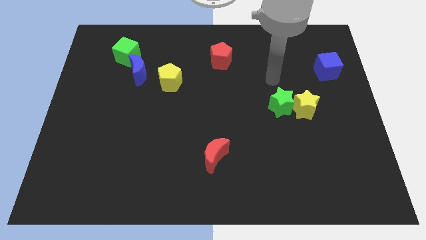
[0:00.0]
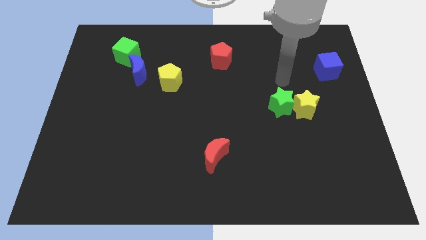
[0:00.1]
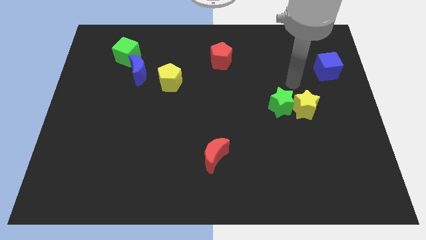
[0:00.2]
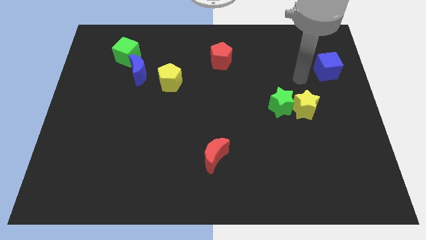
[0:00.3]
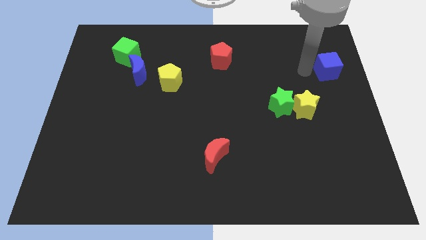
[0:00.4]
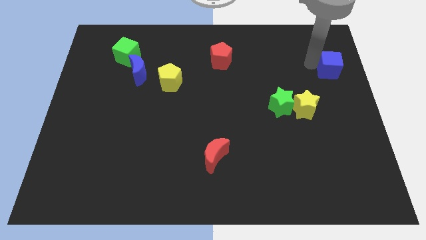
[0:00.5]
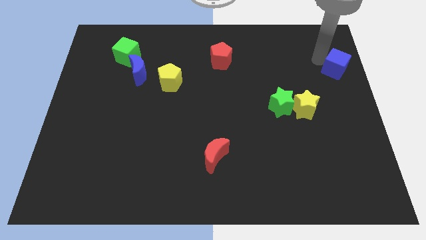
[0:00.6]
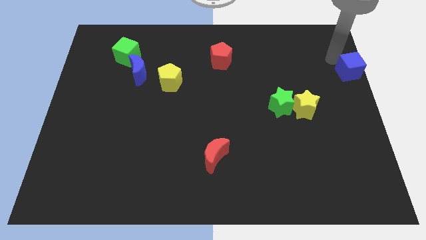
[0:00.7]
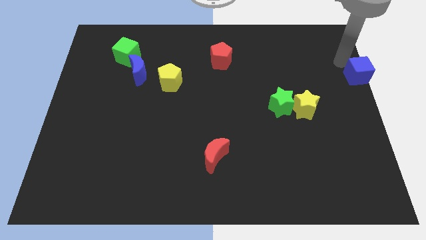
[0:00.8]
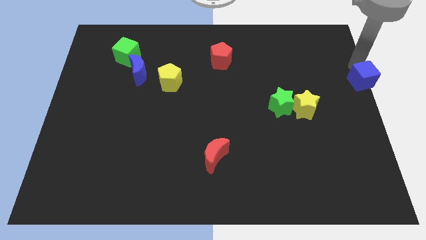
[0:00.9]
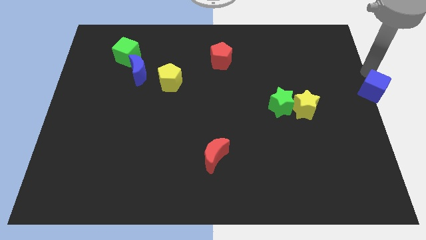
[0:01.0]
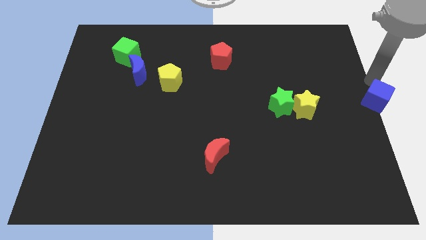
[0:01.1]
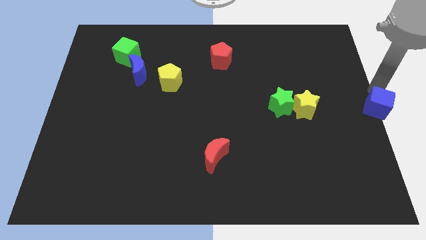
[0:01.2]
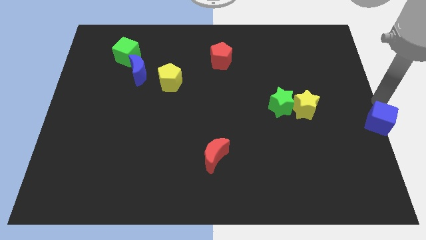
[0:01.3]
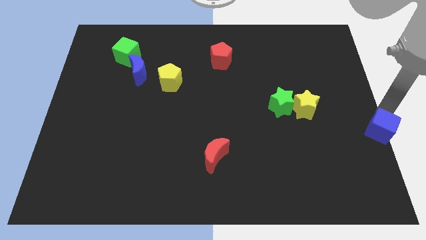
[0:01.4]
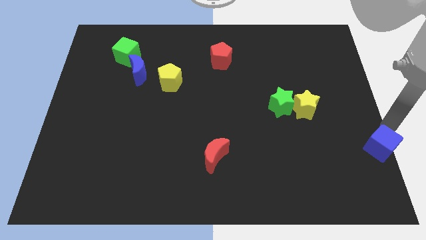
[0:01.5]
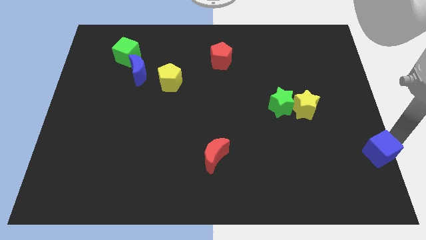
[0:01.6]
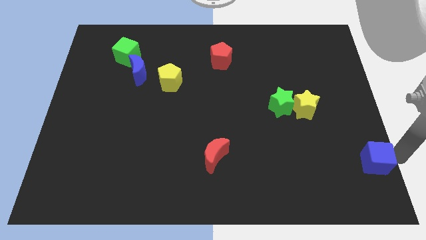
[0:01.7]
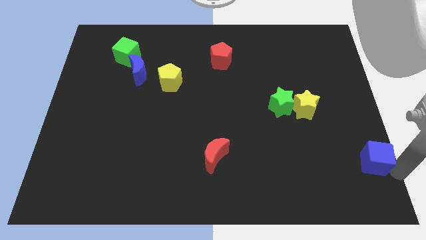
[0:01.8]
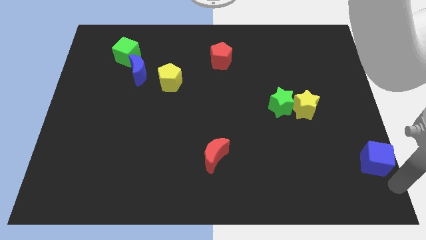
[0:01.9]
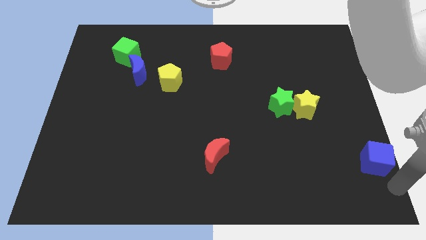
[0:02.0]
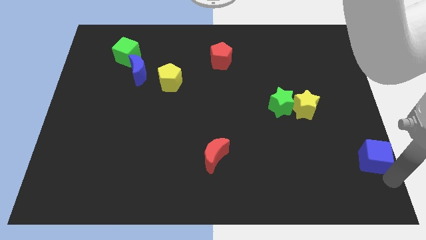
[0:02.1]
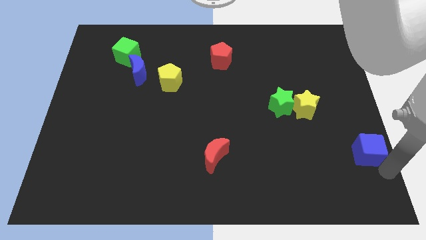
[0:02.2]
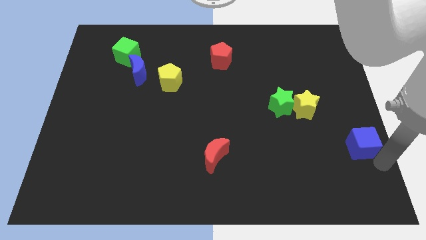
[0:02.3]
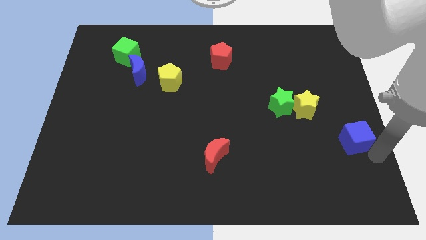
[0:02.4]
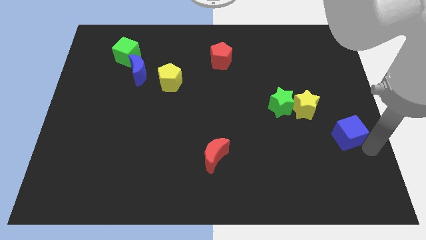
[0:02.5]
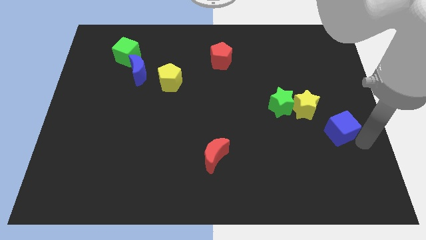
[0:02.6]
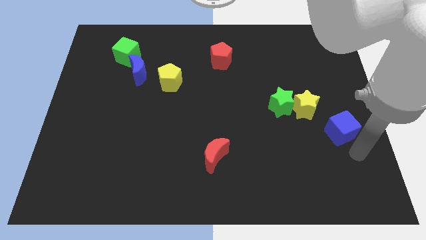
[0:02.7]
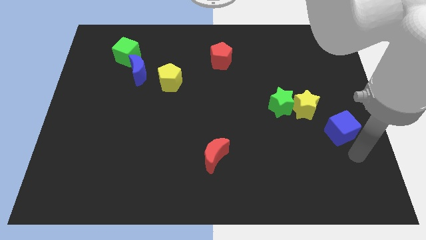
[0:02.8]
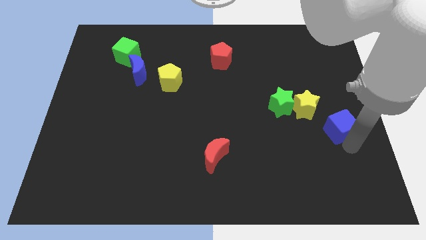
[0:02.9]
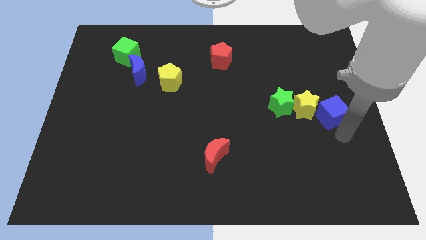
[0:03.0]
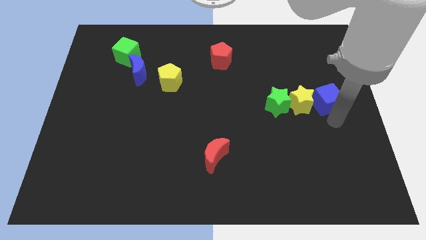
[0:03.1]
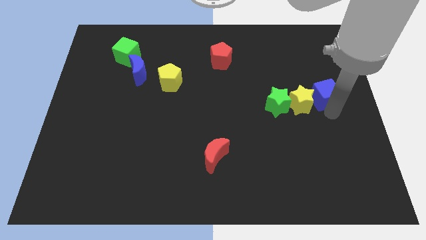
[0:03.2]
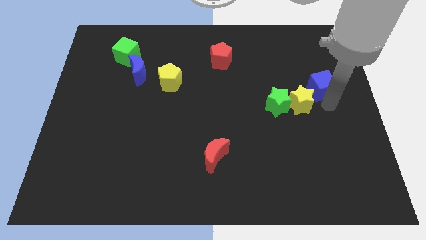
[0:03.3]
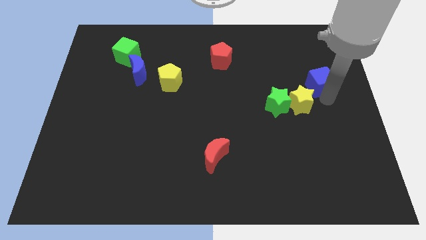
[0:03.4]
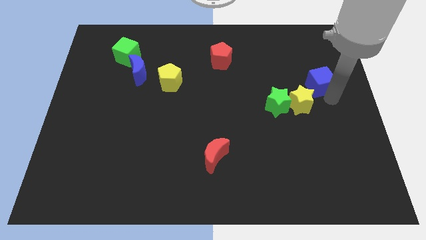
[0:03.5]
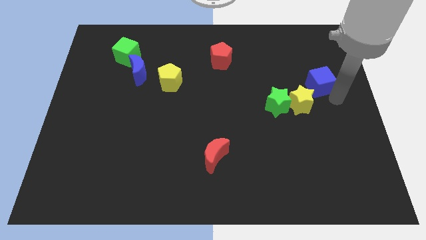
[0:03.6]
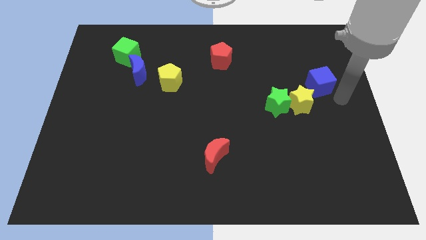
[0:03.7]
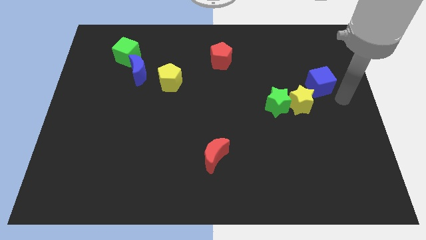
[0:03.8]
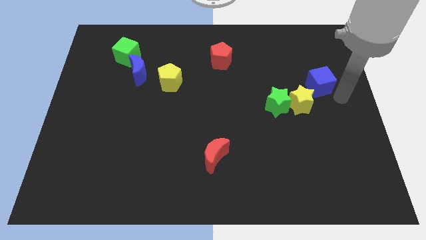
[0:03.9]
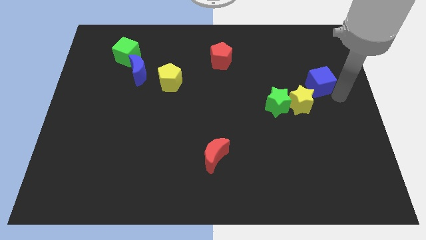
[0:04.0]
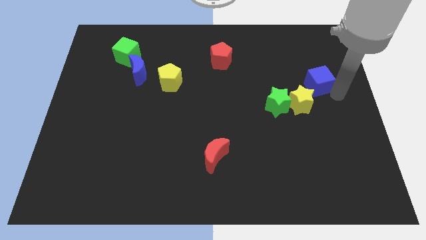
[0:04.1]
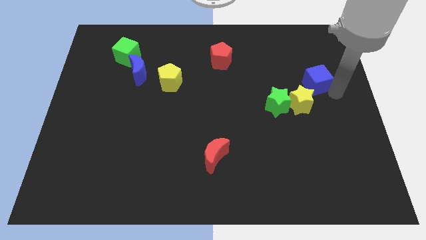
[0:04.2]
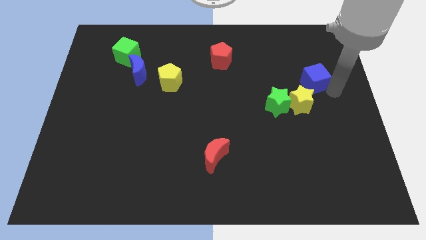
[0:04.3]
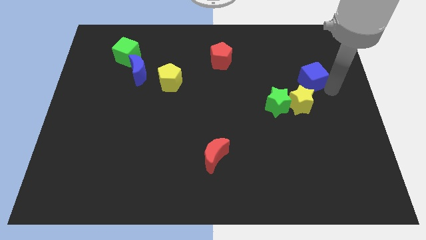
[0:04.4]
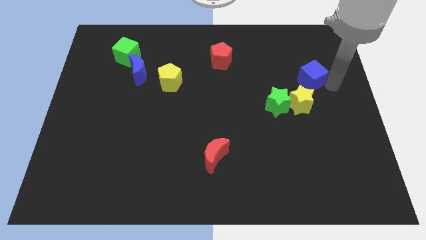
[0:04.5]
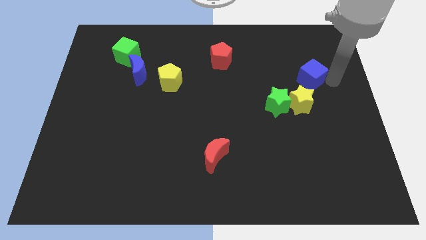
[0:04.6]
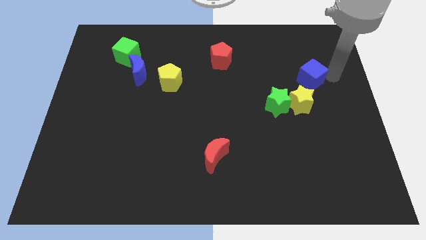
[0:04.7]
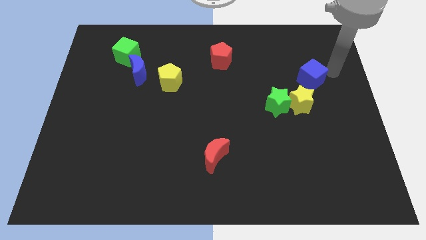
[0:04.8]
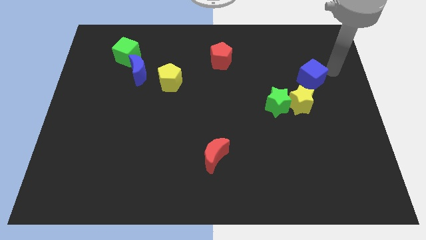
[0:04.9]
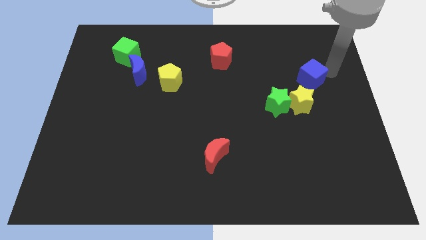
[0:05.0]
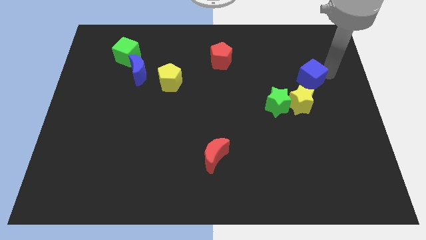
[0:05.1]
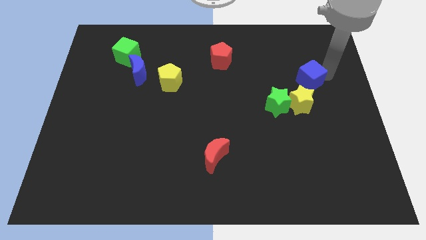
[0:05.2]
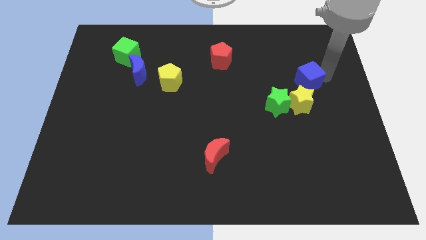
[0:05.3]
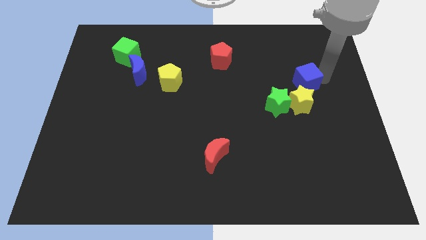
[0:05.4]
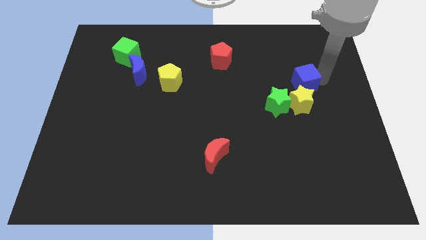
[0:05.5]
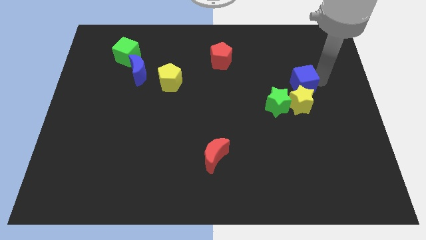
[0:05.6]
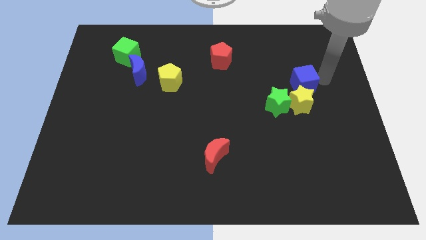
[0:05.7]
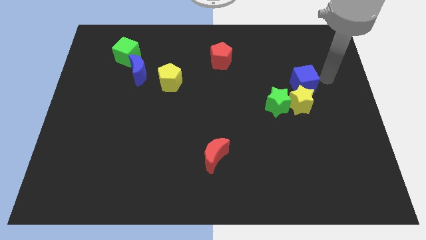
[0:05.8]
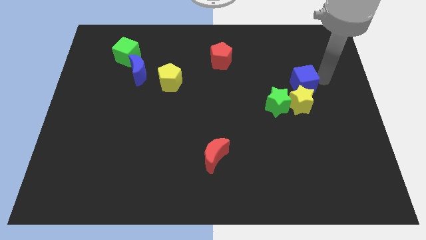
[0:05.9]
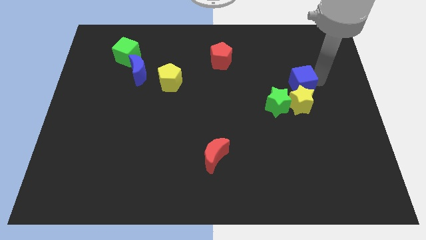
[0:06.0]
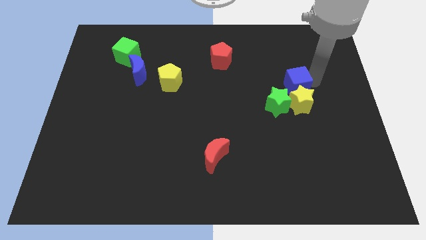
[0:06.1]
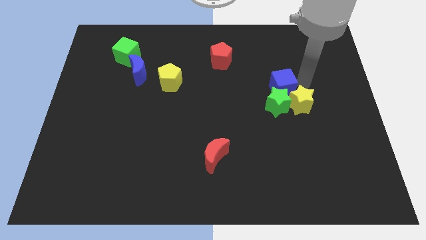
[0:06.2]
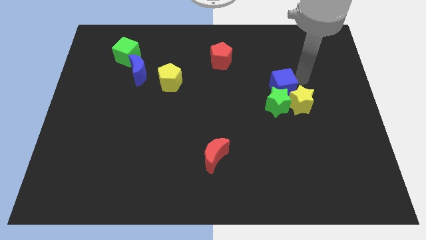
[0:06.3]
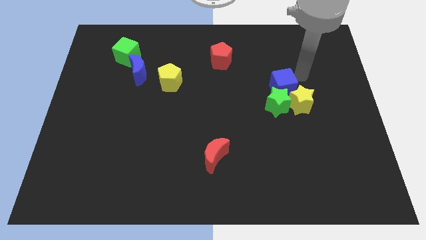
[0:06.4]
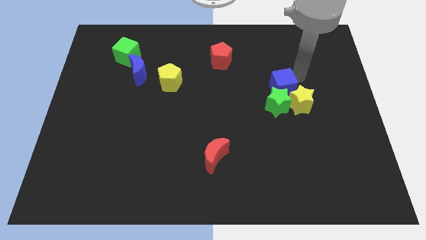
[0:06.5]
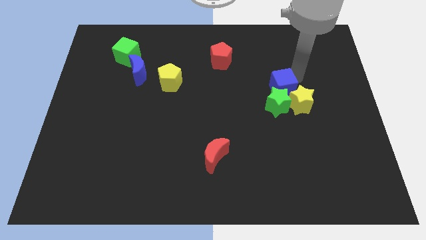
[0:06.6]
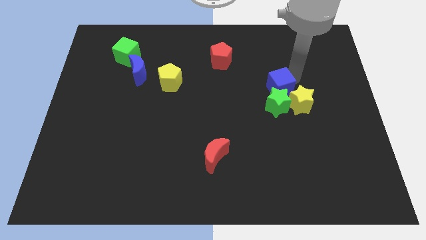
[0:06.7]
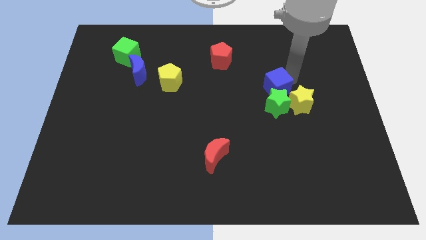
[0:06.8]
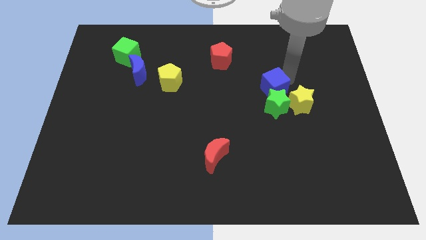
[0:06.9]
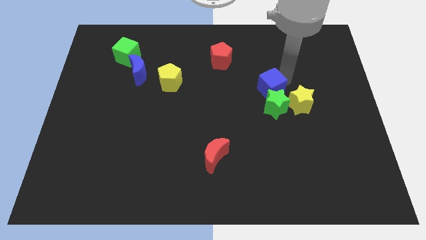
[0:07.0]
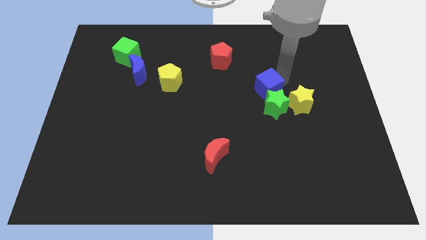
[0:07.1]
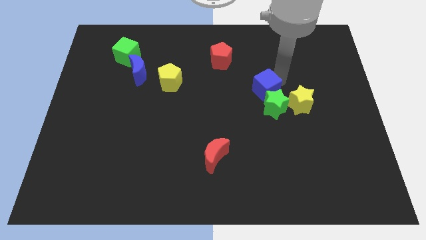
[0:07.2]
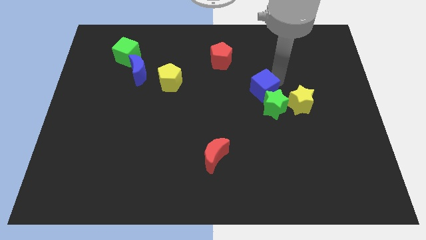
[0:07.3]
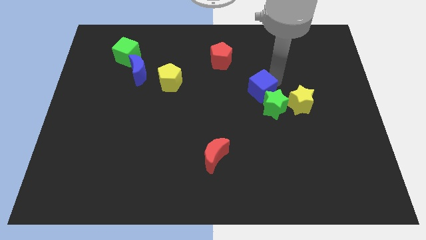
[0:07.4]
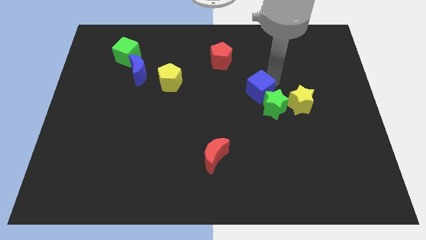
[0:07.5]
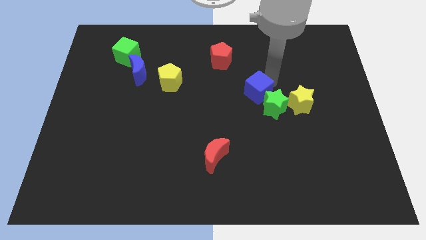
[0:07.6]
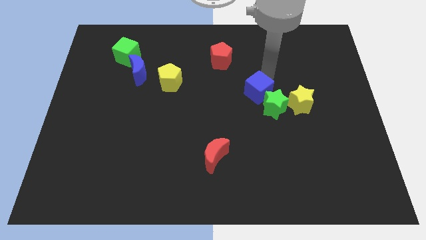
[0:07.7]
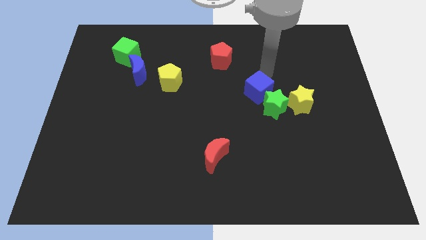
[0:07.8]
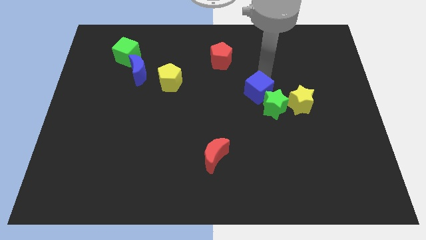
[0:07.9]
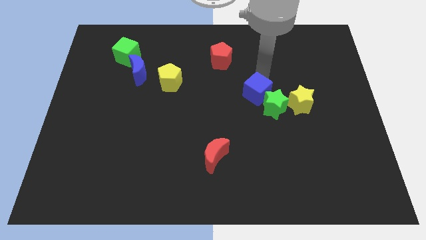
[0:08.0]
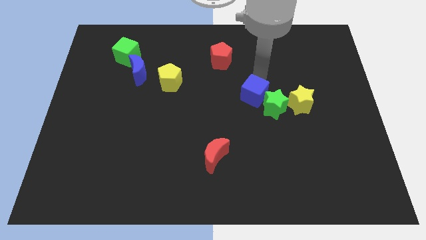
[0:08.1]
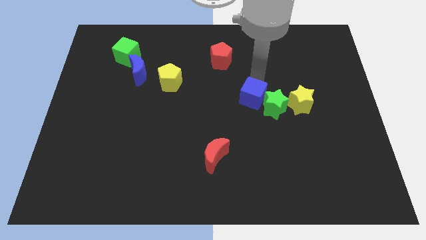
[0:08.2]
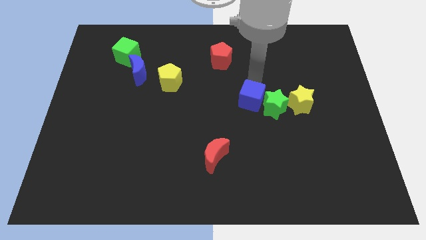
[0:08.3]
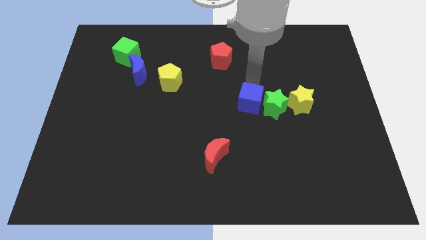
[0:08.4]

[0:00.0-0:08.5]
slide the blue cube diagonally down and left
